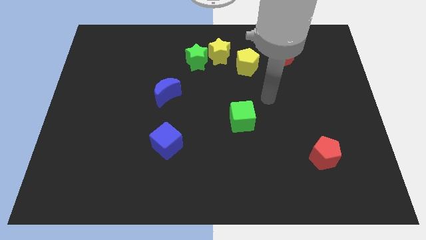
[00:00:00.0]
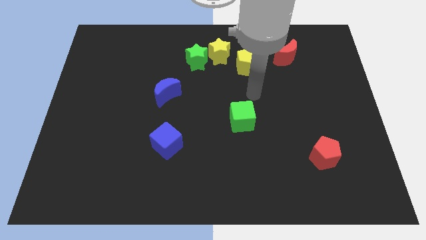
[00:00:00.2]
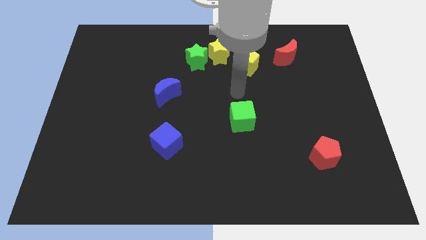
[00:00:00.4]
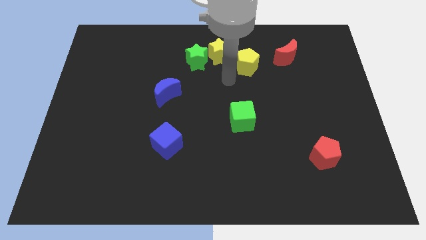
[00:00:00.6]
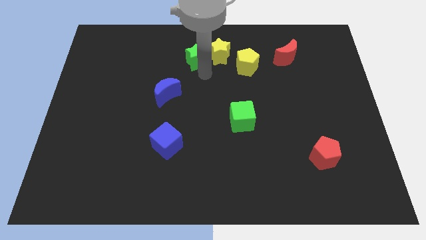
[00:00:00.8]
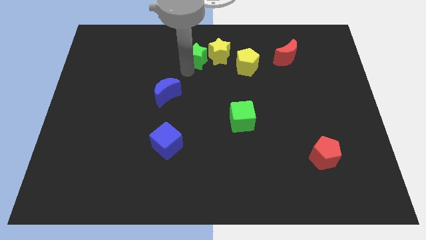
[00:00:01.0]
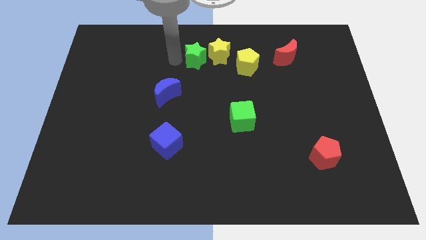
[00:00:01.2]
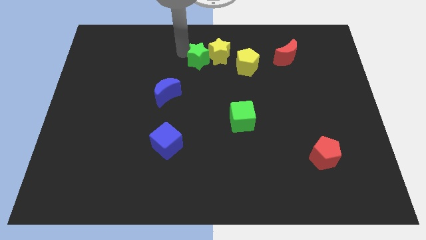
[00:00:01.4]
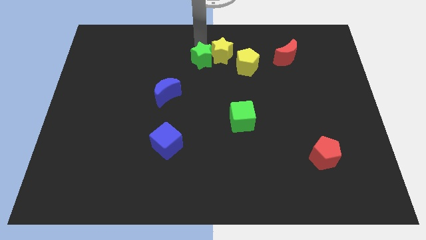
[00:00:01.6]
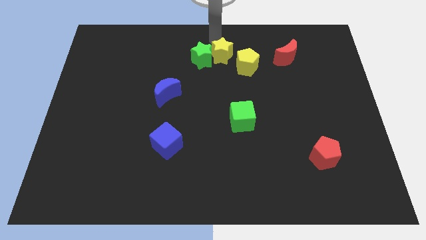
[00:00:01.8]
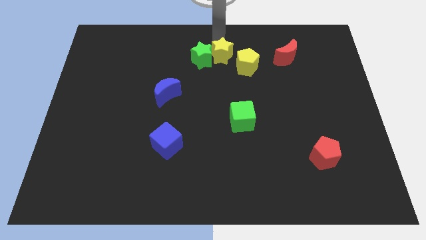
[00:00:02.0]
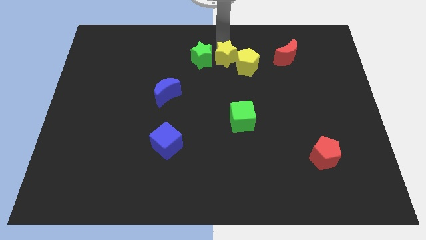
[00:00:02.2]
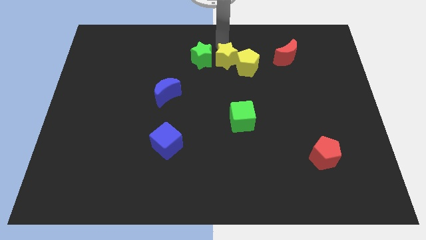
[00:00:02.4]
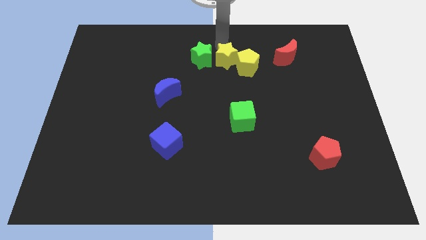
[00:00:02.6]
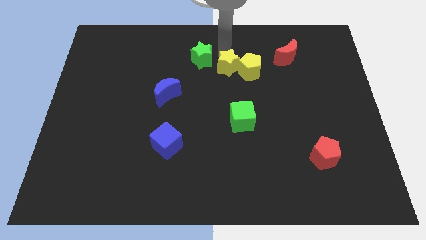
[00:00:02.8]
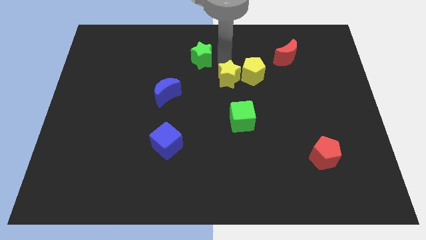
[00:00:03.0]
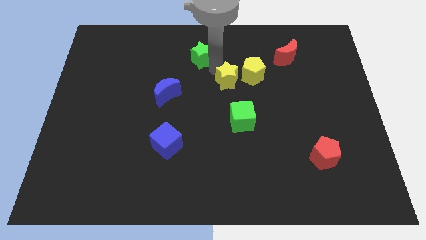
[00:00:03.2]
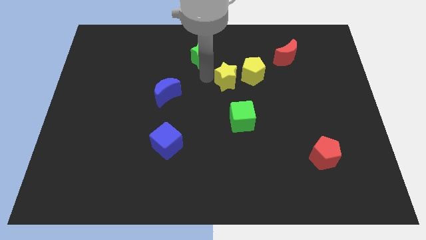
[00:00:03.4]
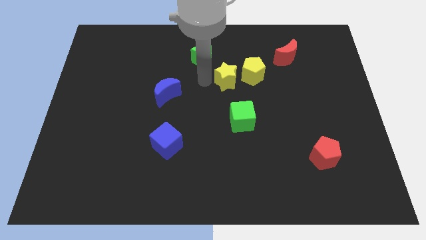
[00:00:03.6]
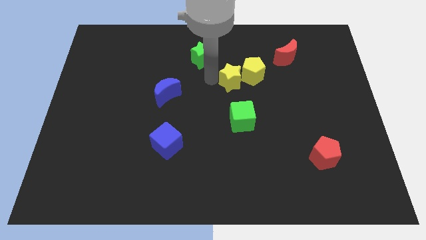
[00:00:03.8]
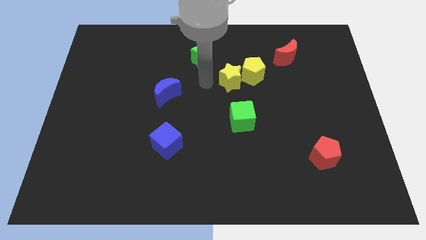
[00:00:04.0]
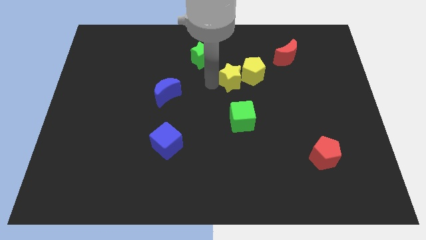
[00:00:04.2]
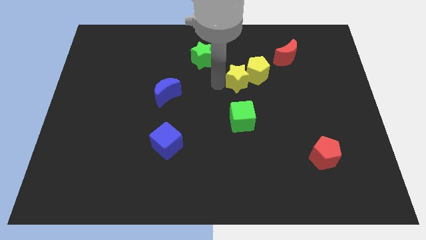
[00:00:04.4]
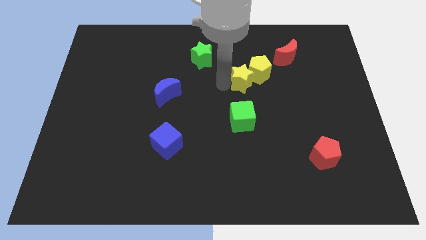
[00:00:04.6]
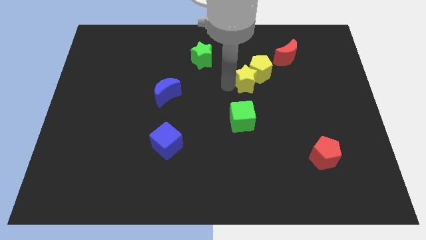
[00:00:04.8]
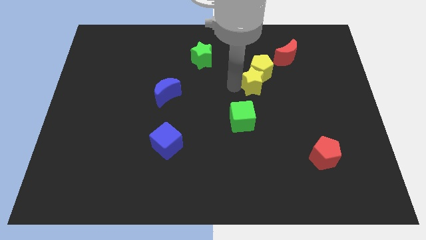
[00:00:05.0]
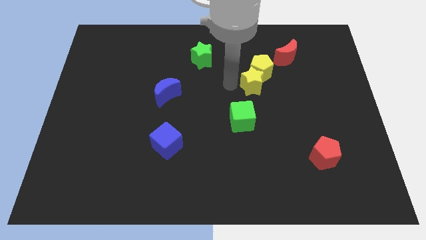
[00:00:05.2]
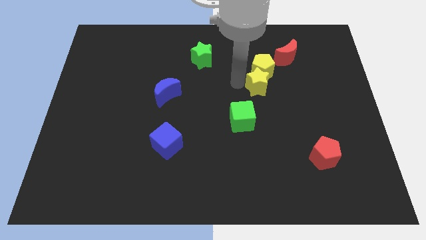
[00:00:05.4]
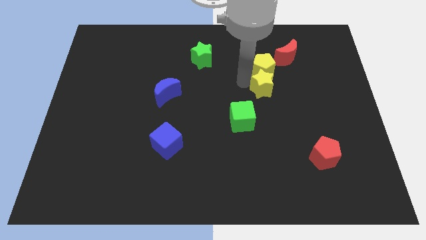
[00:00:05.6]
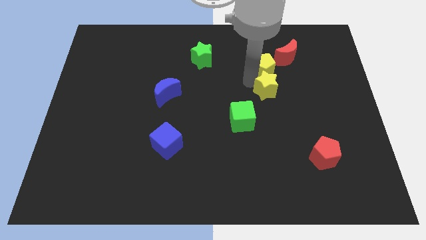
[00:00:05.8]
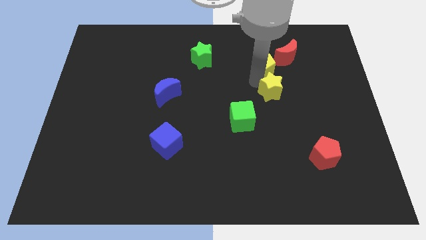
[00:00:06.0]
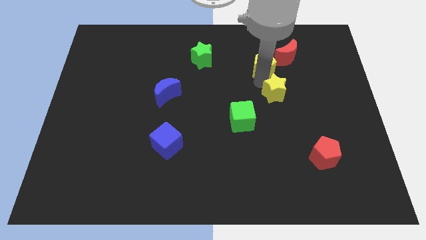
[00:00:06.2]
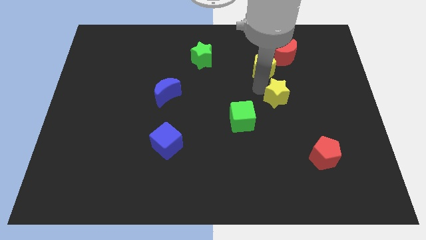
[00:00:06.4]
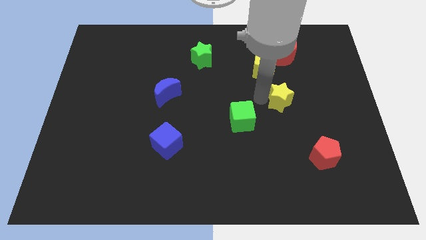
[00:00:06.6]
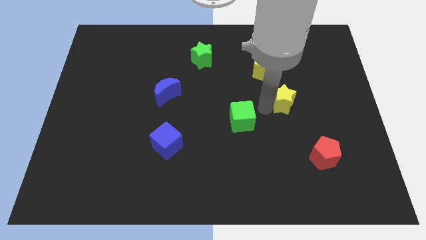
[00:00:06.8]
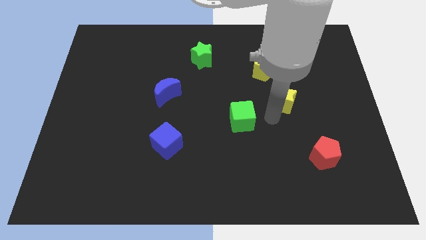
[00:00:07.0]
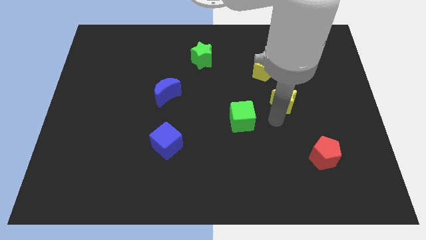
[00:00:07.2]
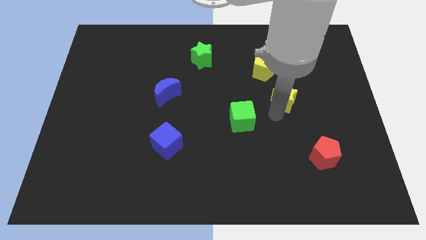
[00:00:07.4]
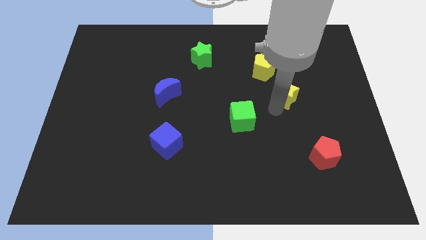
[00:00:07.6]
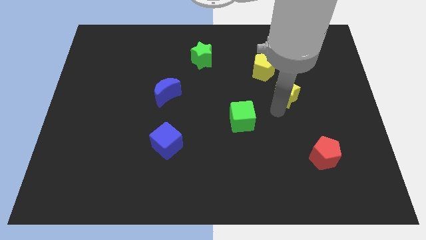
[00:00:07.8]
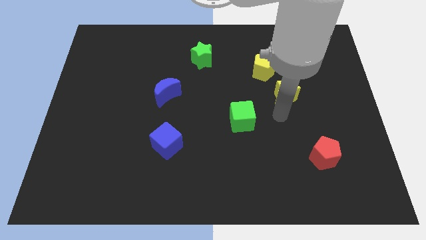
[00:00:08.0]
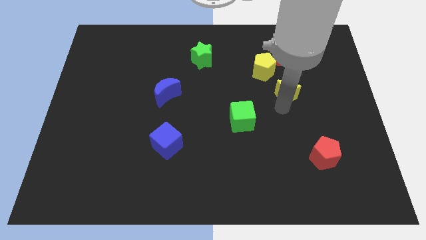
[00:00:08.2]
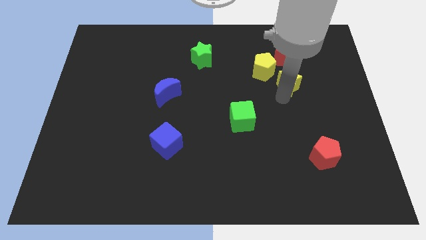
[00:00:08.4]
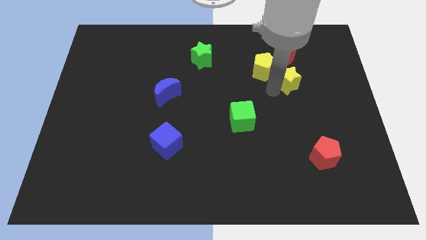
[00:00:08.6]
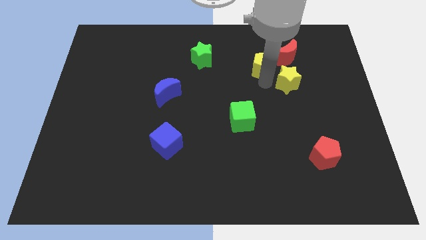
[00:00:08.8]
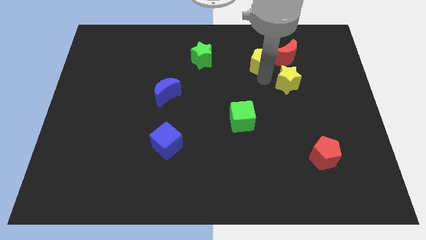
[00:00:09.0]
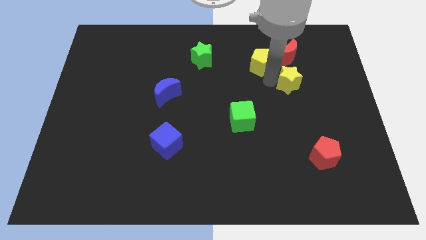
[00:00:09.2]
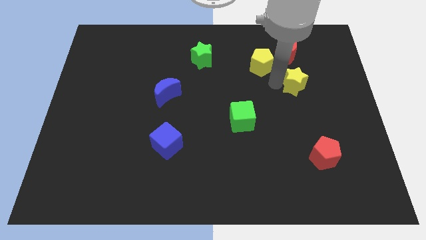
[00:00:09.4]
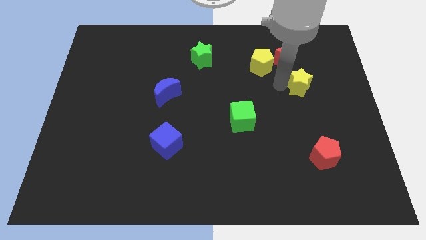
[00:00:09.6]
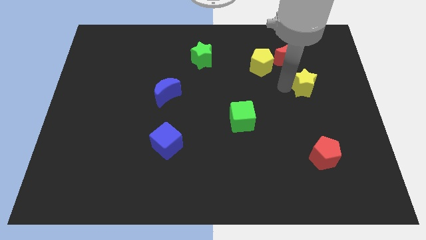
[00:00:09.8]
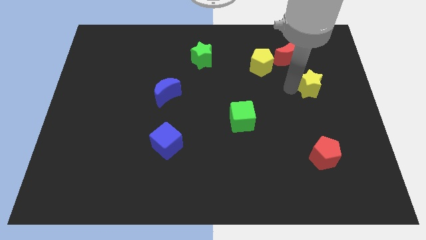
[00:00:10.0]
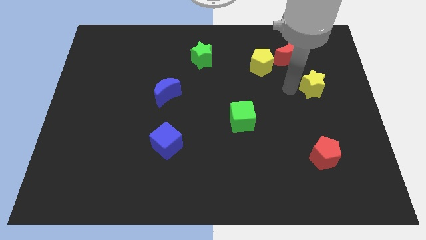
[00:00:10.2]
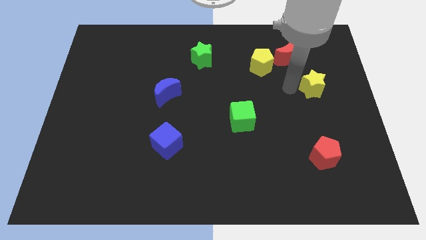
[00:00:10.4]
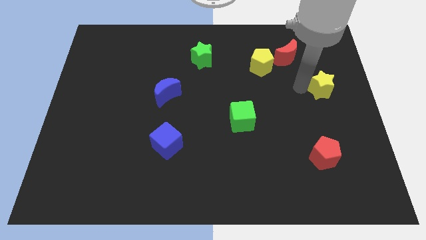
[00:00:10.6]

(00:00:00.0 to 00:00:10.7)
move the yellow star to the right side

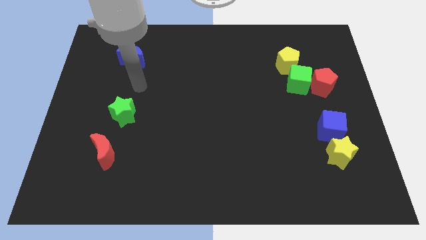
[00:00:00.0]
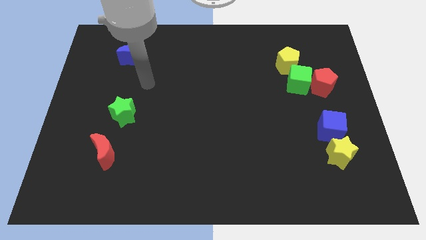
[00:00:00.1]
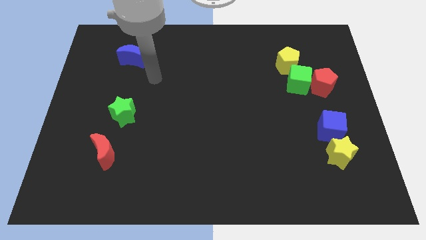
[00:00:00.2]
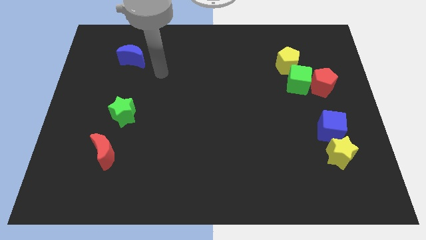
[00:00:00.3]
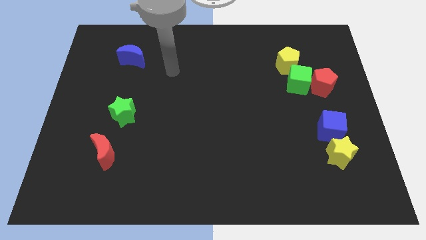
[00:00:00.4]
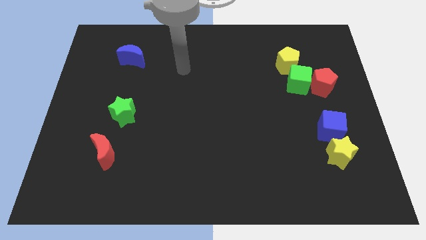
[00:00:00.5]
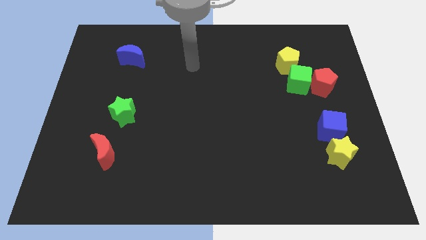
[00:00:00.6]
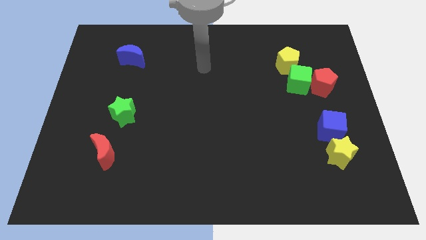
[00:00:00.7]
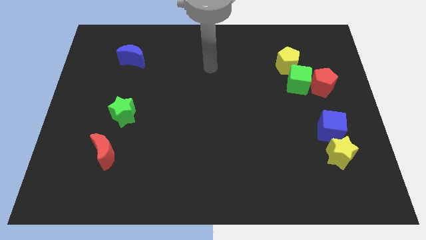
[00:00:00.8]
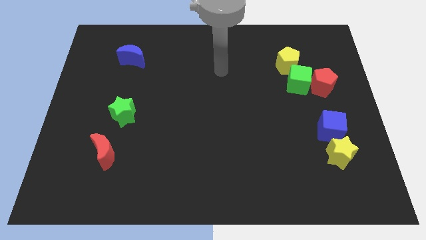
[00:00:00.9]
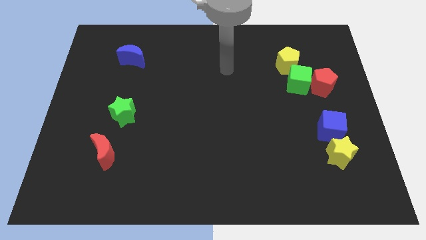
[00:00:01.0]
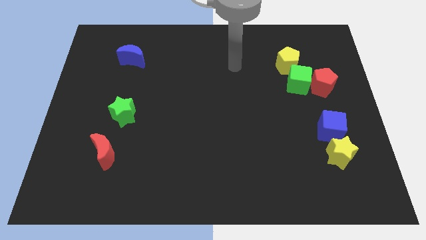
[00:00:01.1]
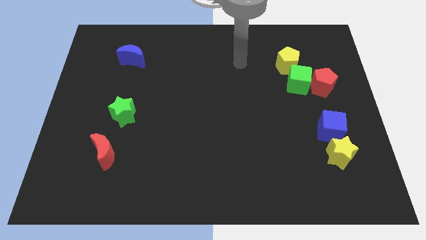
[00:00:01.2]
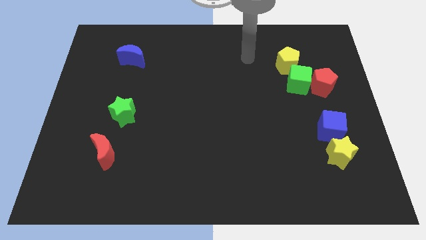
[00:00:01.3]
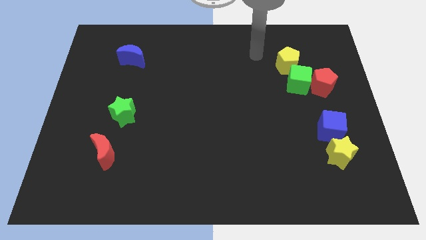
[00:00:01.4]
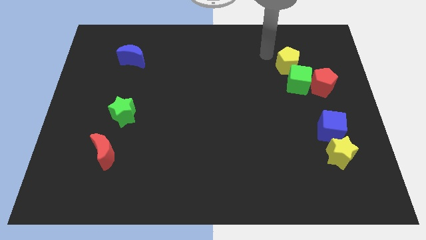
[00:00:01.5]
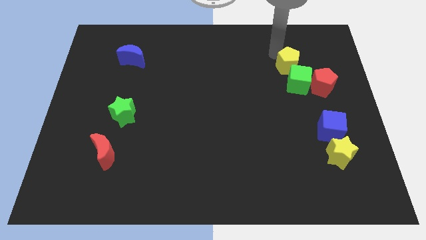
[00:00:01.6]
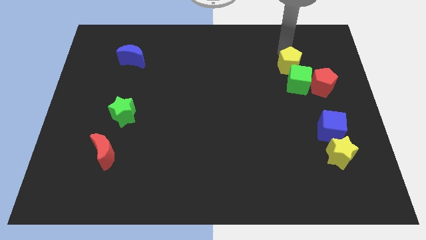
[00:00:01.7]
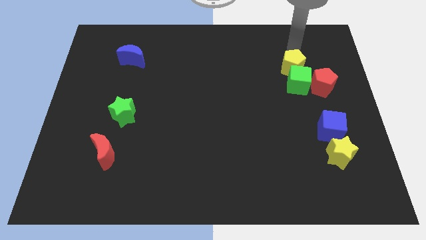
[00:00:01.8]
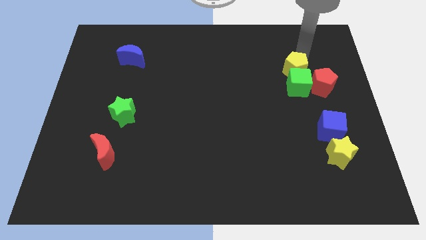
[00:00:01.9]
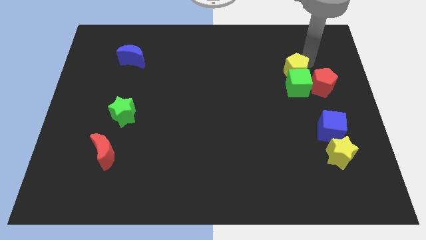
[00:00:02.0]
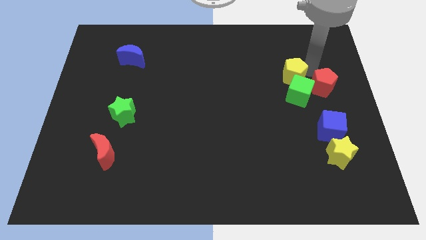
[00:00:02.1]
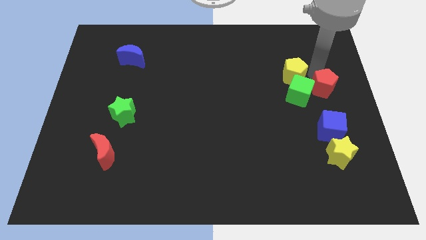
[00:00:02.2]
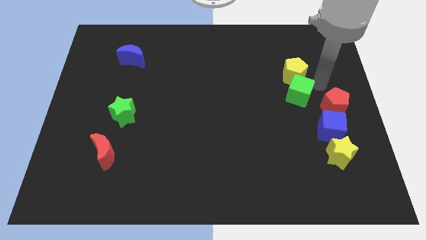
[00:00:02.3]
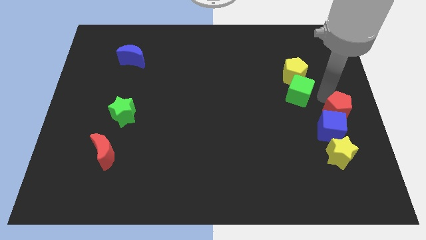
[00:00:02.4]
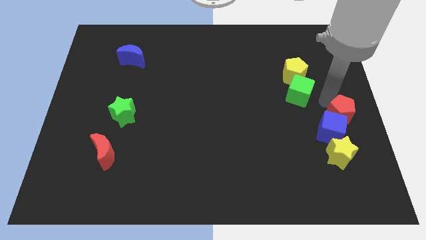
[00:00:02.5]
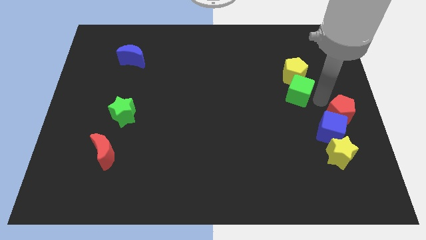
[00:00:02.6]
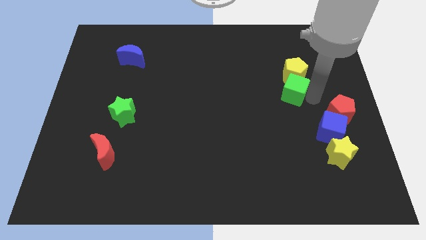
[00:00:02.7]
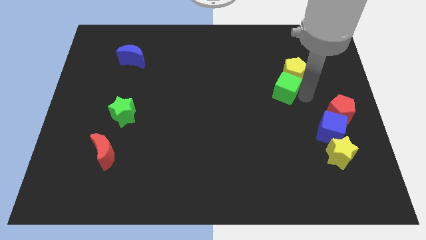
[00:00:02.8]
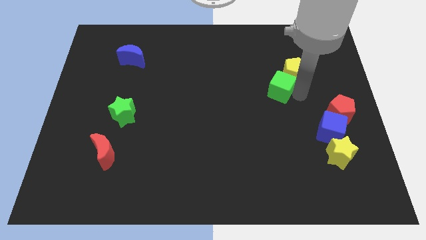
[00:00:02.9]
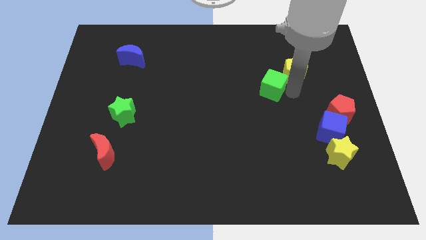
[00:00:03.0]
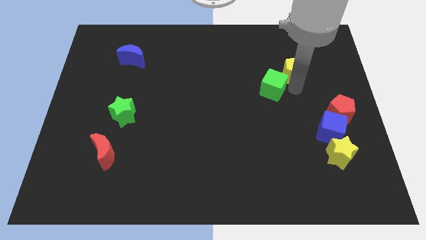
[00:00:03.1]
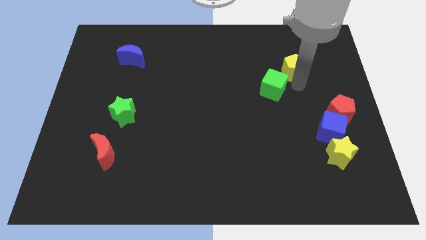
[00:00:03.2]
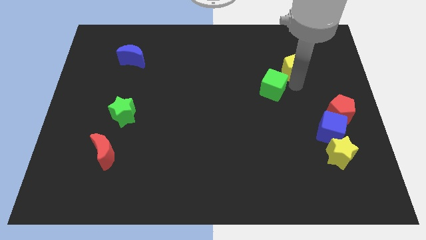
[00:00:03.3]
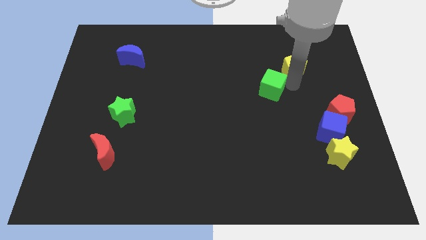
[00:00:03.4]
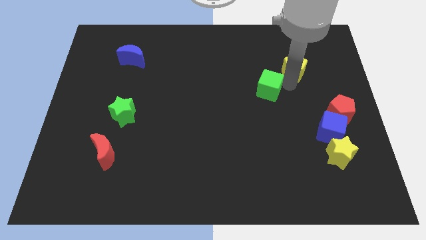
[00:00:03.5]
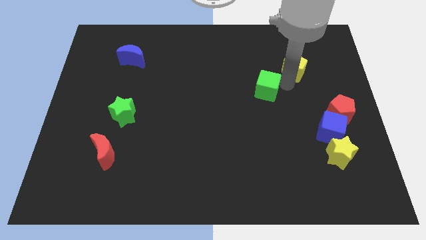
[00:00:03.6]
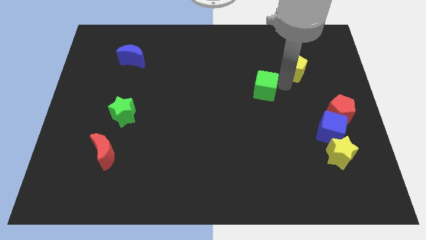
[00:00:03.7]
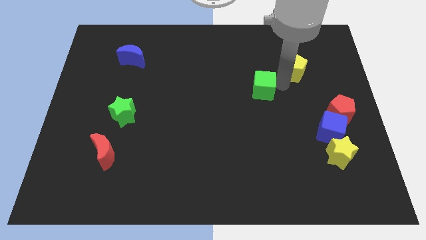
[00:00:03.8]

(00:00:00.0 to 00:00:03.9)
move the green cube to the middle of the board
